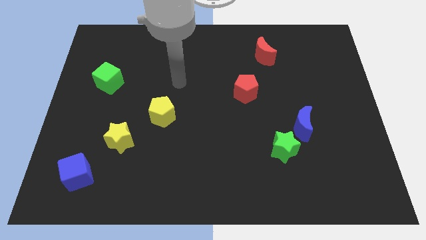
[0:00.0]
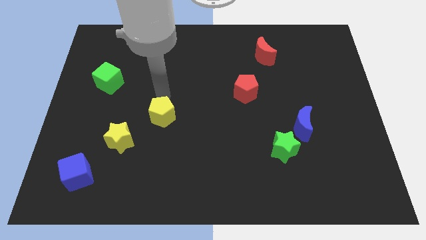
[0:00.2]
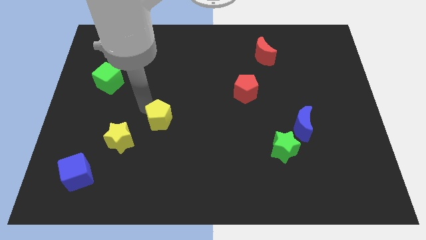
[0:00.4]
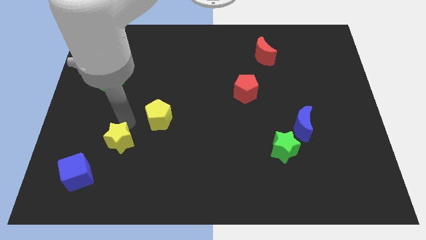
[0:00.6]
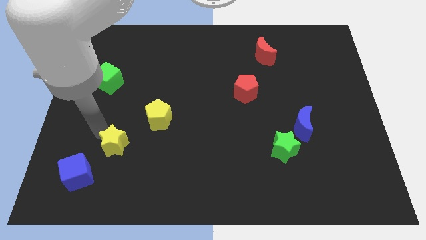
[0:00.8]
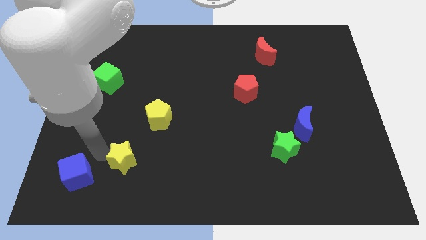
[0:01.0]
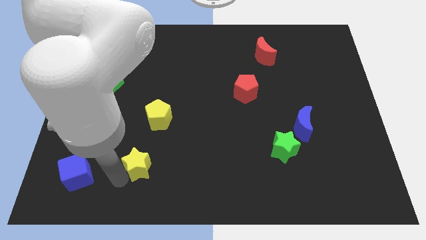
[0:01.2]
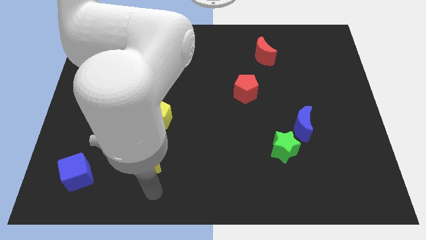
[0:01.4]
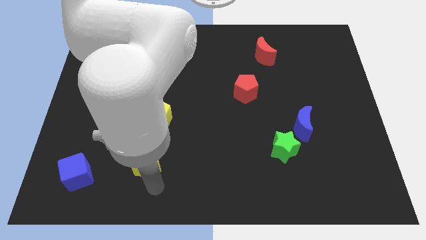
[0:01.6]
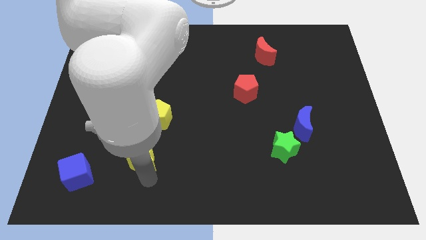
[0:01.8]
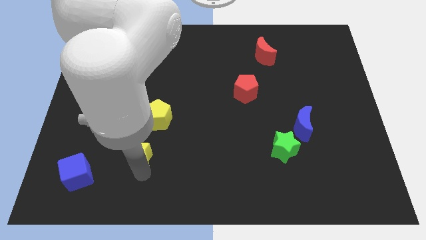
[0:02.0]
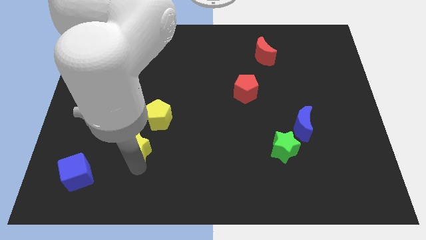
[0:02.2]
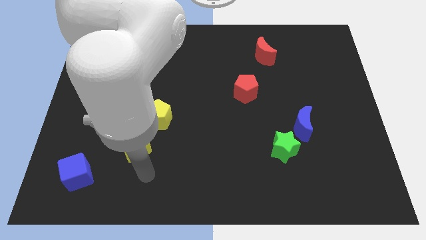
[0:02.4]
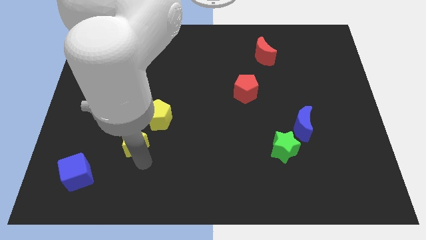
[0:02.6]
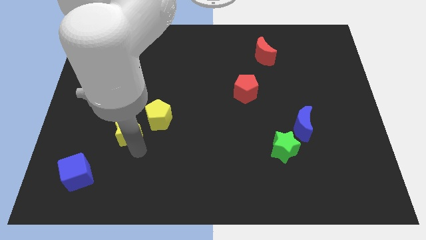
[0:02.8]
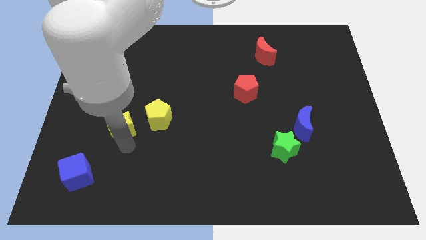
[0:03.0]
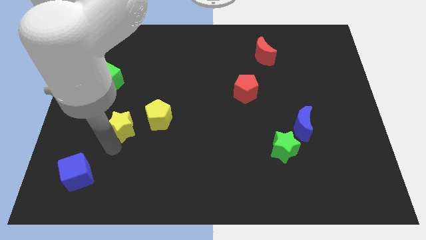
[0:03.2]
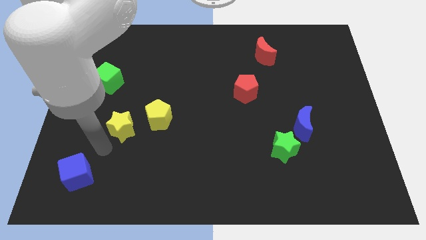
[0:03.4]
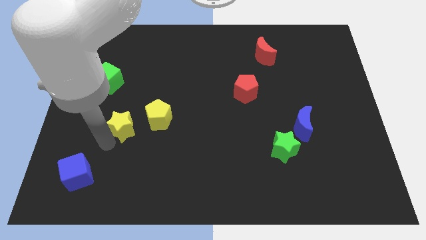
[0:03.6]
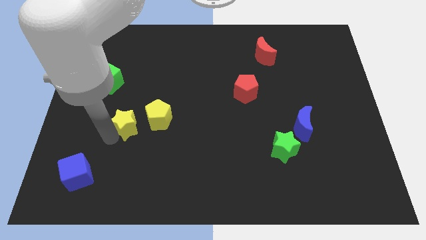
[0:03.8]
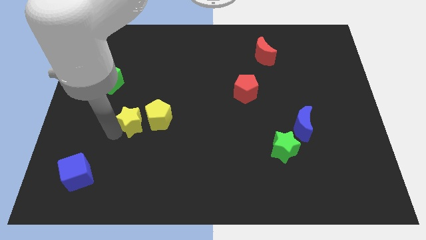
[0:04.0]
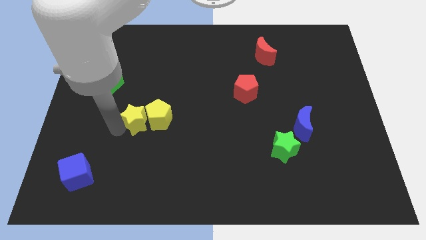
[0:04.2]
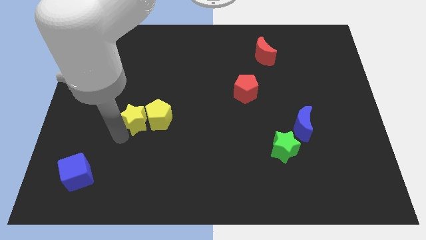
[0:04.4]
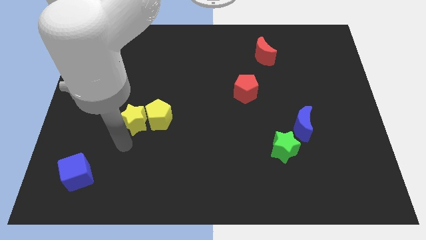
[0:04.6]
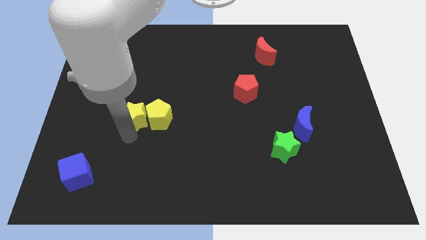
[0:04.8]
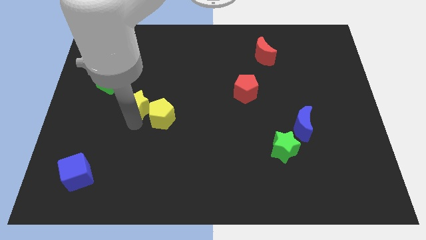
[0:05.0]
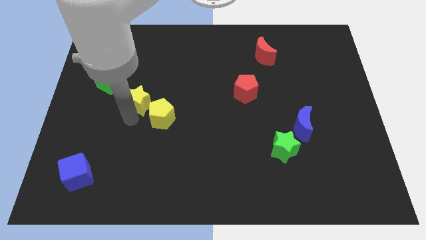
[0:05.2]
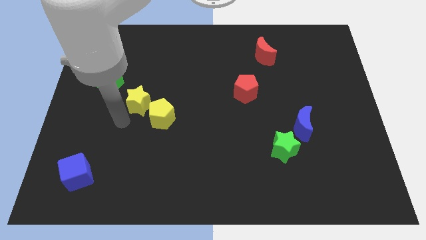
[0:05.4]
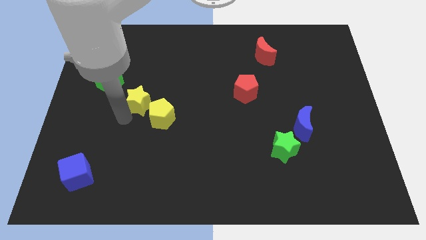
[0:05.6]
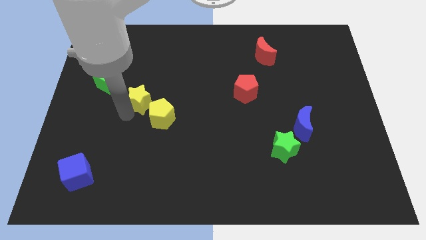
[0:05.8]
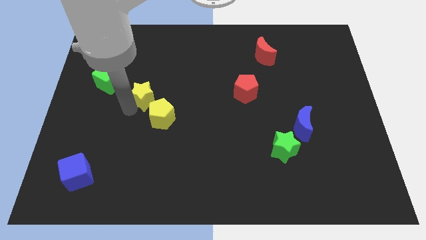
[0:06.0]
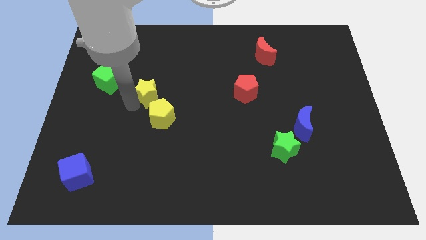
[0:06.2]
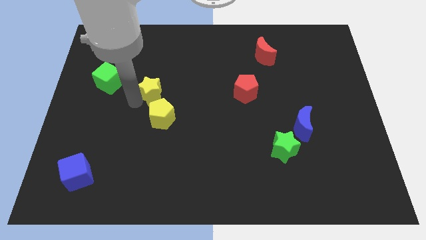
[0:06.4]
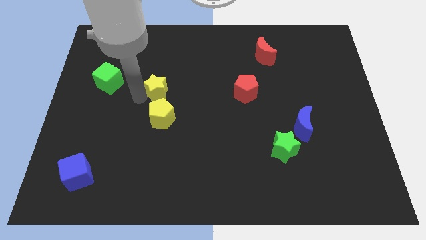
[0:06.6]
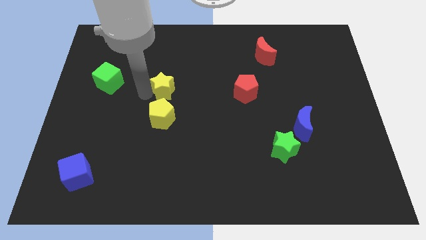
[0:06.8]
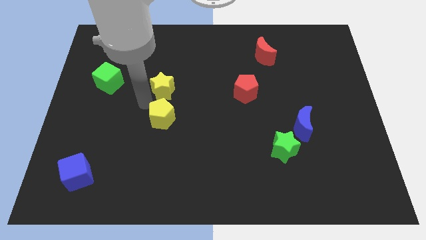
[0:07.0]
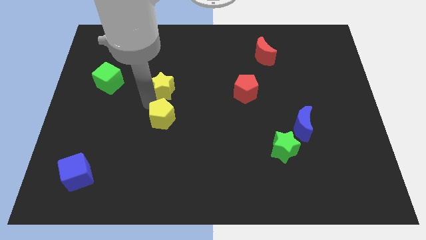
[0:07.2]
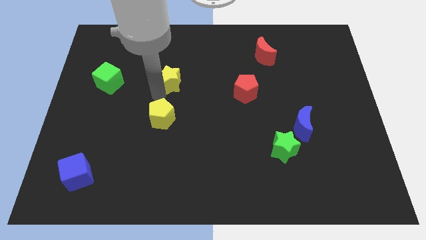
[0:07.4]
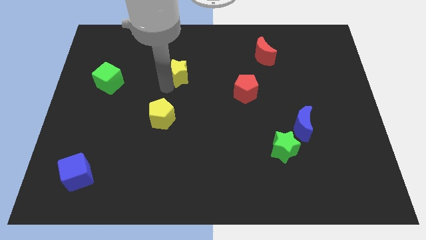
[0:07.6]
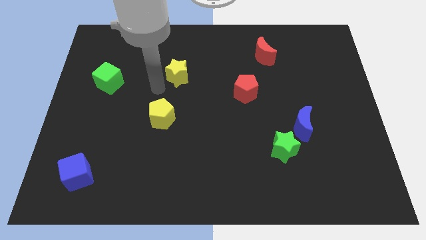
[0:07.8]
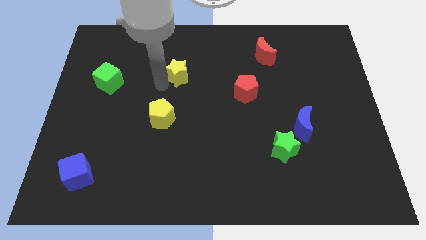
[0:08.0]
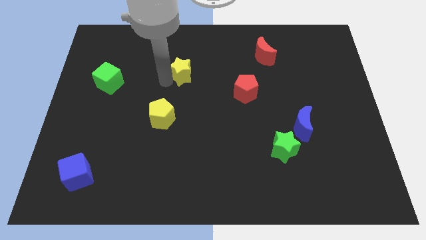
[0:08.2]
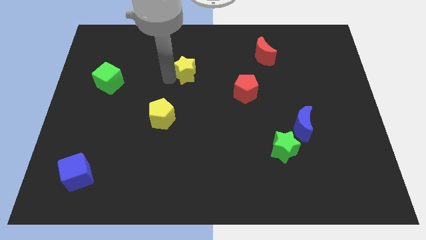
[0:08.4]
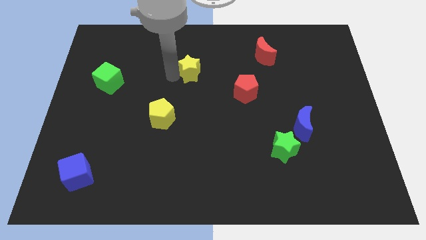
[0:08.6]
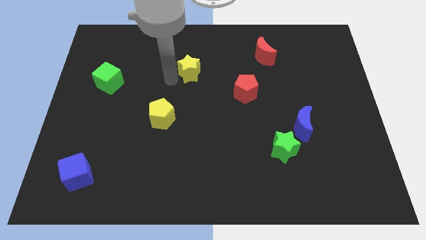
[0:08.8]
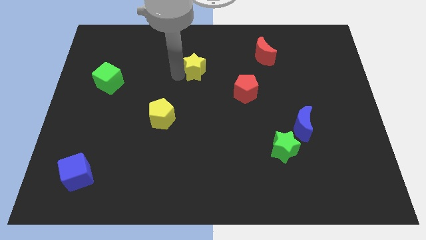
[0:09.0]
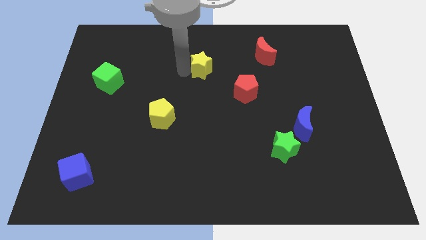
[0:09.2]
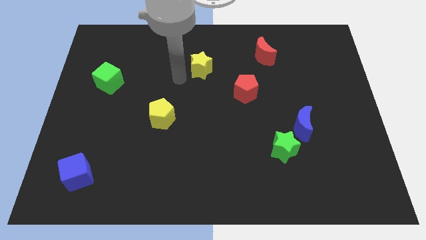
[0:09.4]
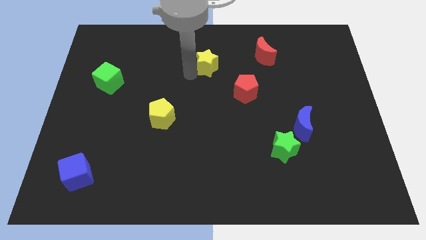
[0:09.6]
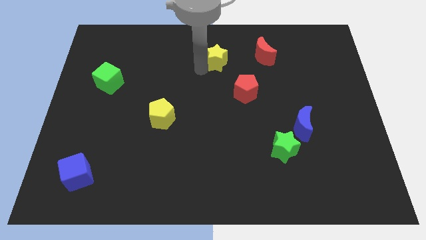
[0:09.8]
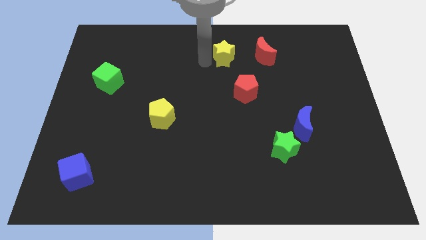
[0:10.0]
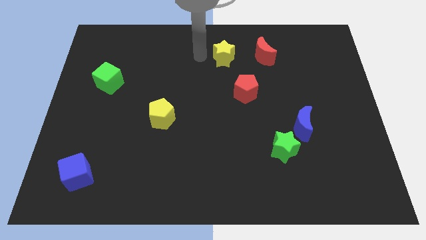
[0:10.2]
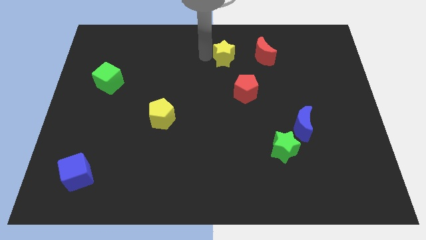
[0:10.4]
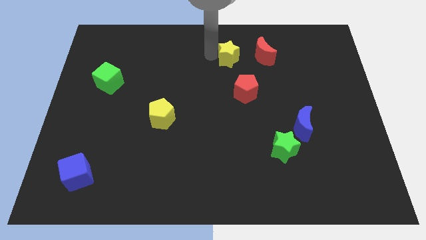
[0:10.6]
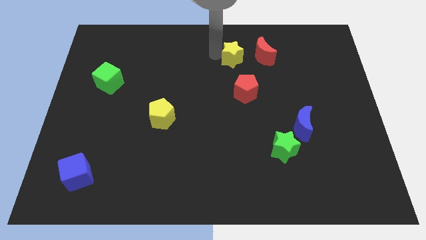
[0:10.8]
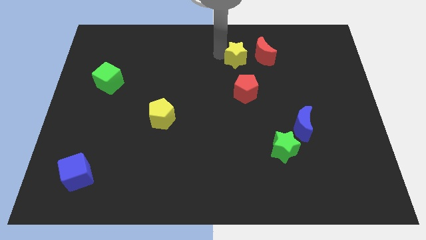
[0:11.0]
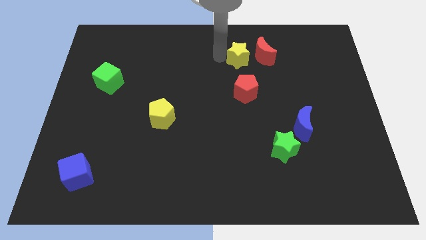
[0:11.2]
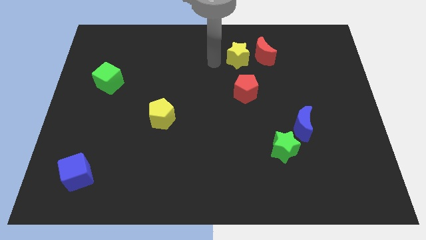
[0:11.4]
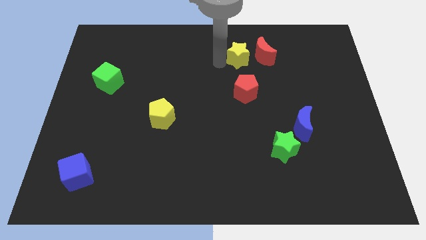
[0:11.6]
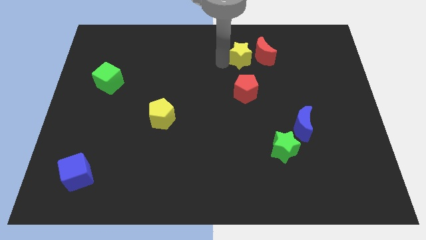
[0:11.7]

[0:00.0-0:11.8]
slide the yellow star close to the red moon
